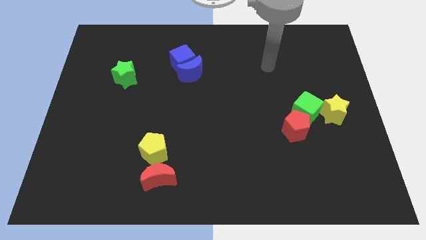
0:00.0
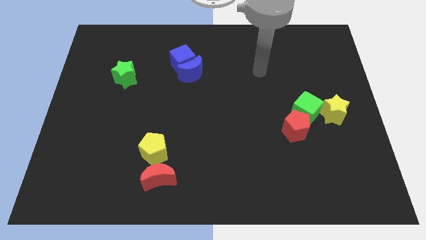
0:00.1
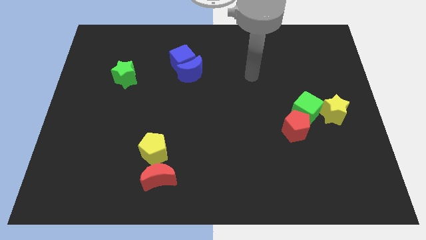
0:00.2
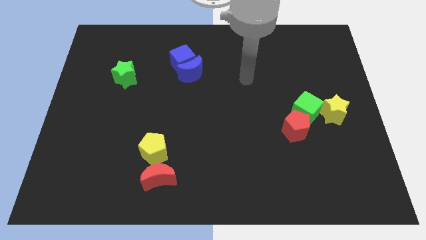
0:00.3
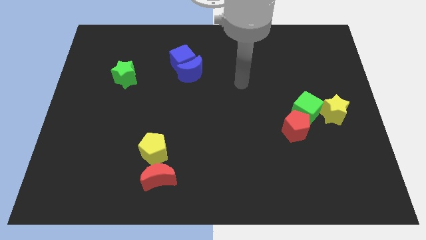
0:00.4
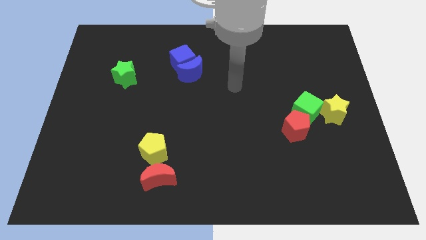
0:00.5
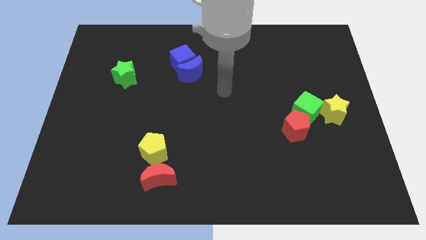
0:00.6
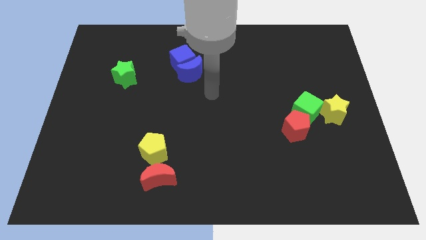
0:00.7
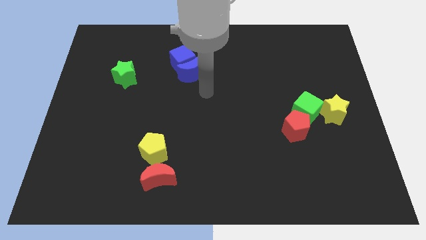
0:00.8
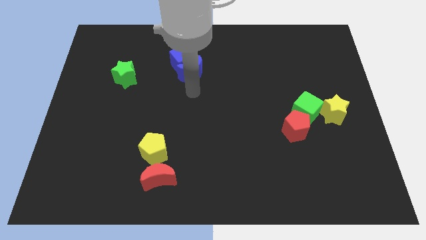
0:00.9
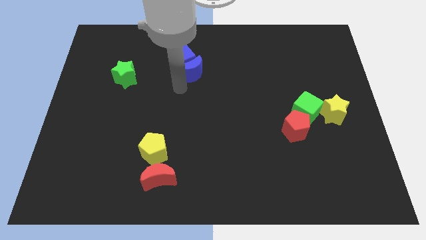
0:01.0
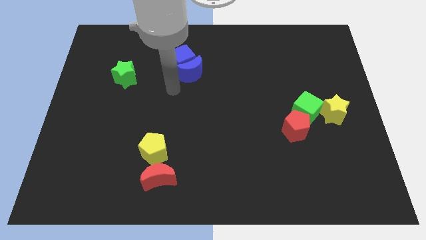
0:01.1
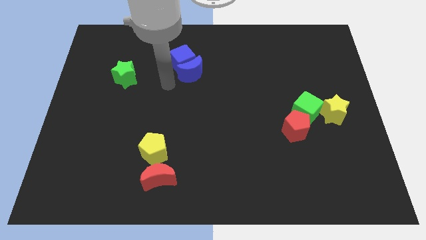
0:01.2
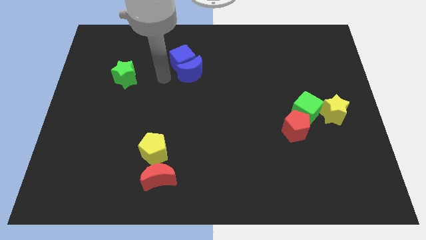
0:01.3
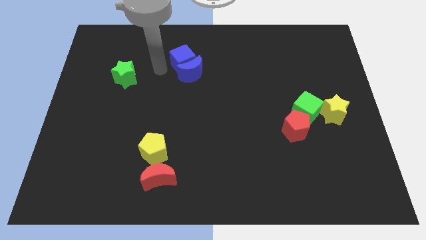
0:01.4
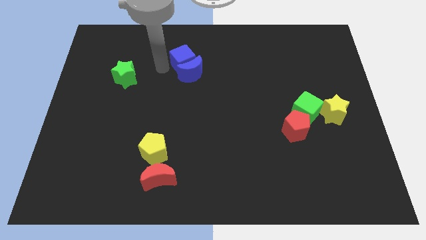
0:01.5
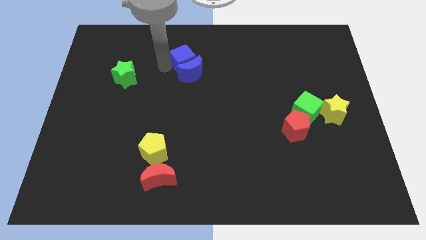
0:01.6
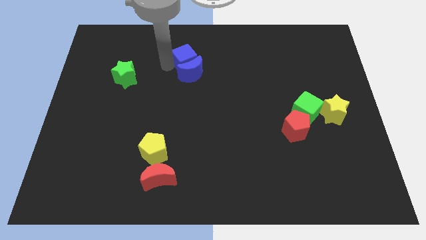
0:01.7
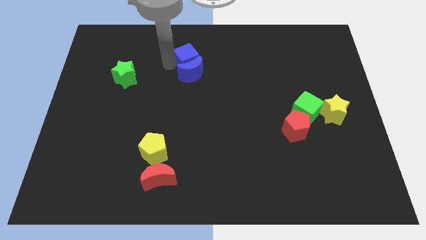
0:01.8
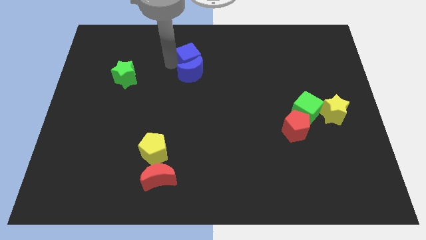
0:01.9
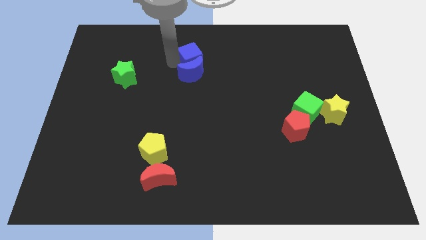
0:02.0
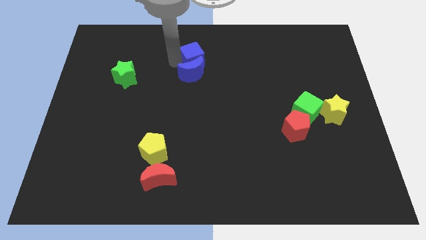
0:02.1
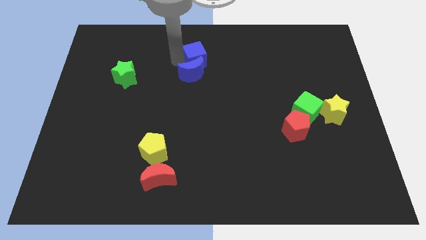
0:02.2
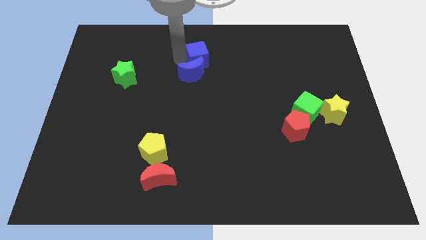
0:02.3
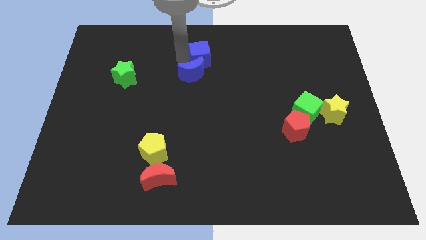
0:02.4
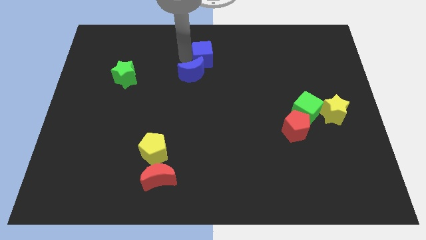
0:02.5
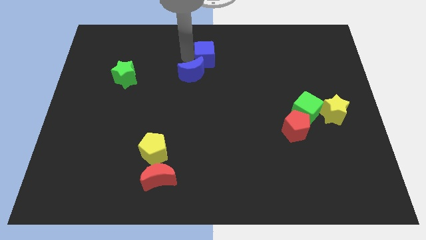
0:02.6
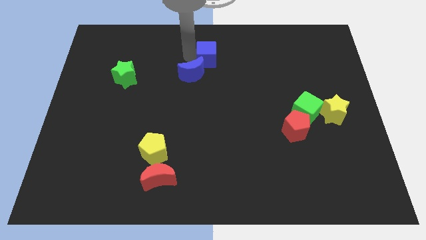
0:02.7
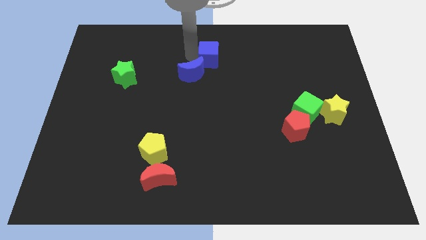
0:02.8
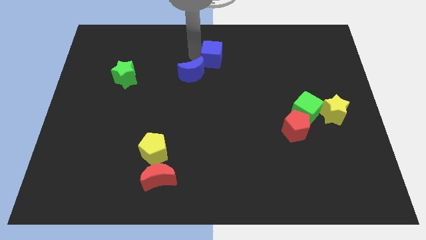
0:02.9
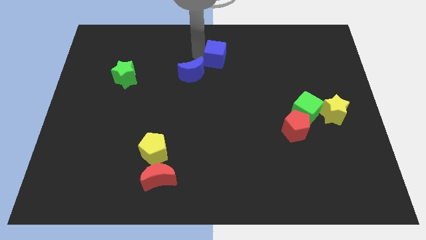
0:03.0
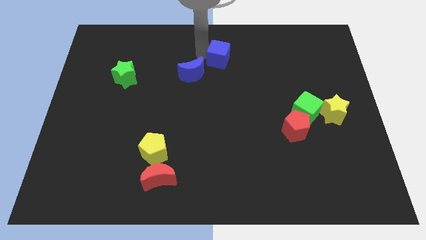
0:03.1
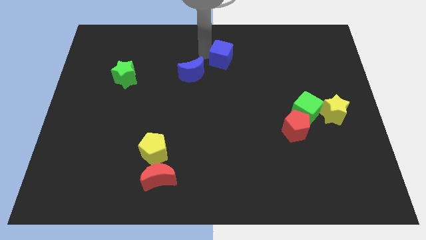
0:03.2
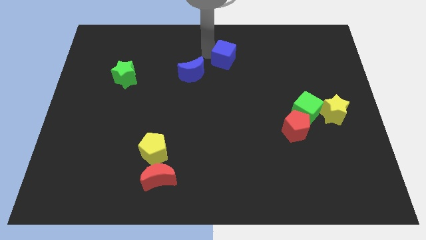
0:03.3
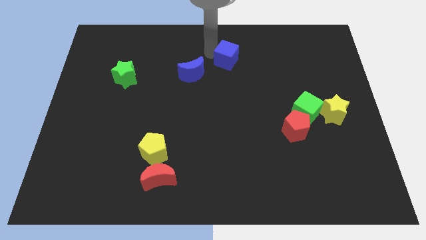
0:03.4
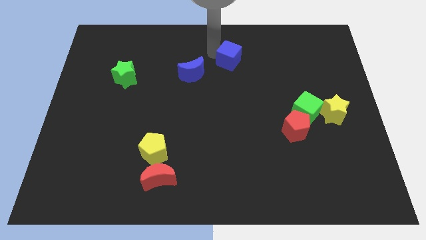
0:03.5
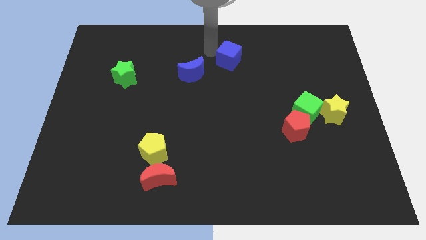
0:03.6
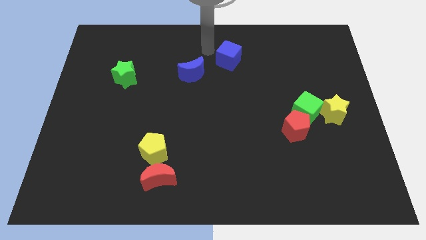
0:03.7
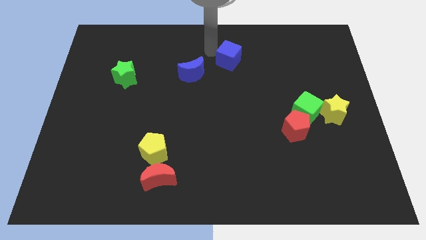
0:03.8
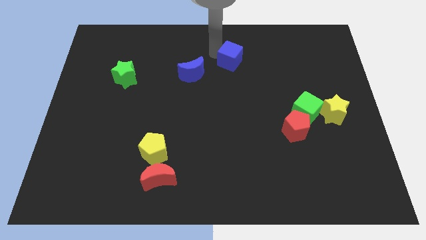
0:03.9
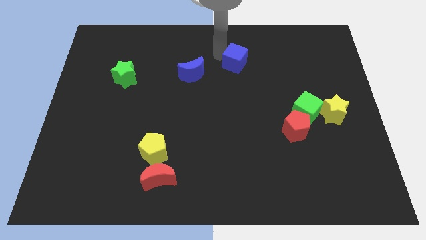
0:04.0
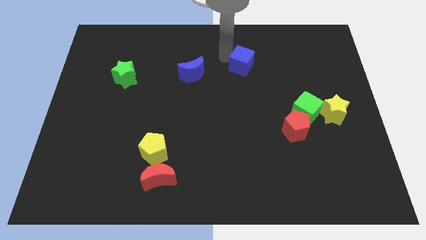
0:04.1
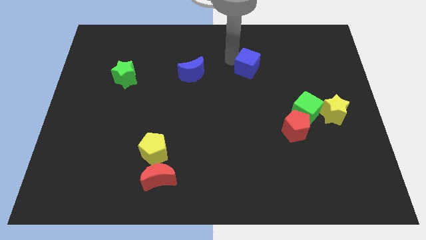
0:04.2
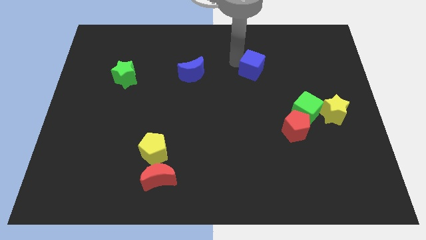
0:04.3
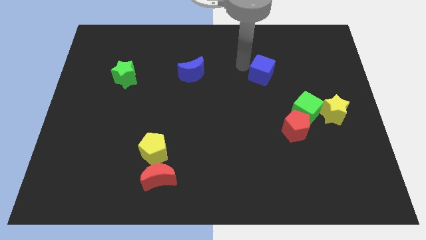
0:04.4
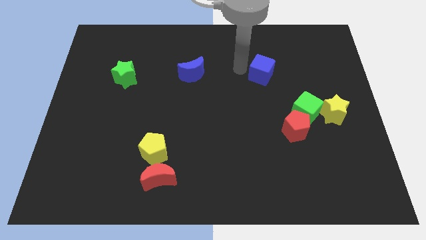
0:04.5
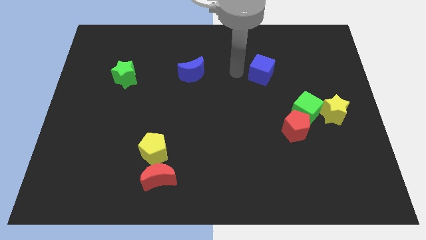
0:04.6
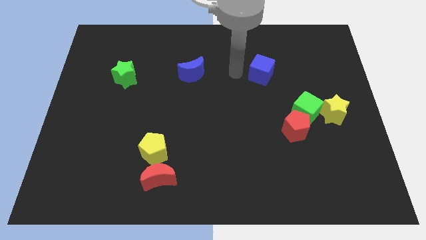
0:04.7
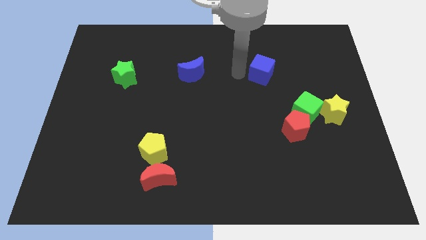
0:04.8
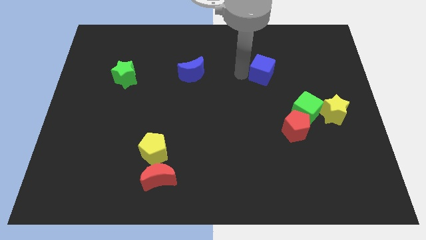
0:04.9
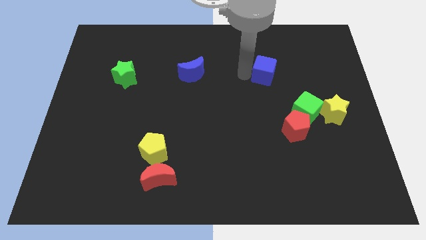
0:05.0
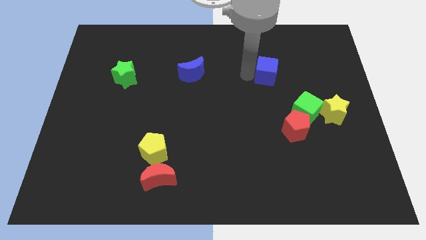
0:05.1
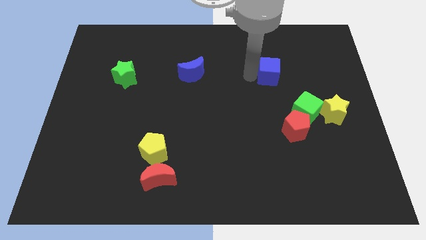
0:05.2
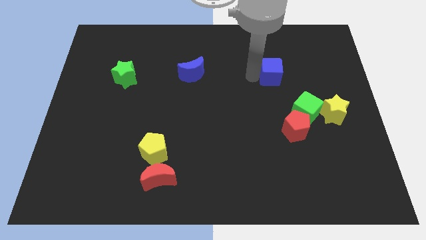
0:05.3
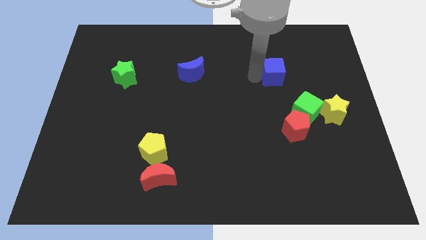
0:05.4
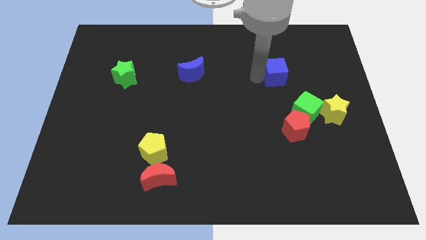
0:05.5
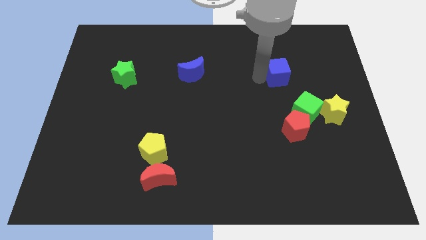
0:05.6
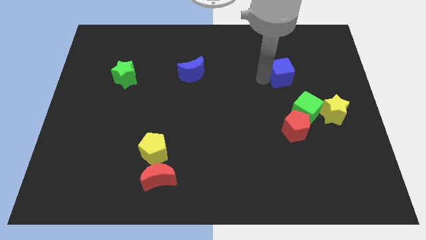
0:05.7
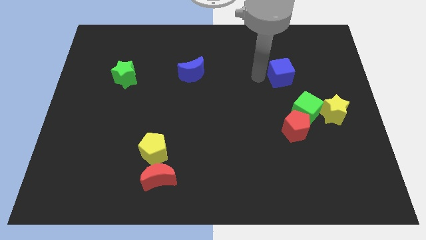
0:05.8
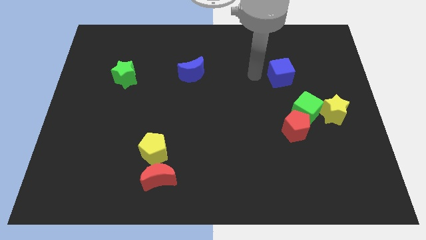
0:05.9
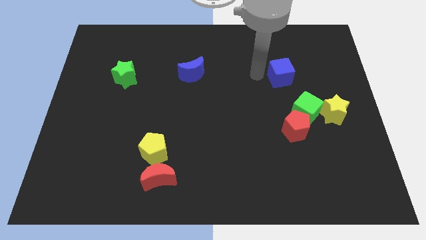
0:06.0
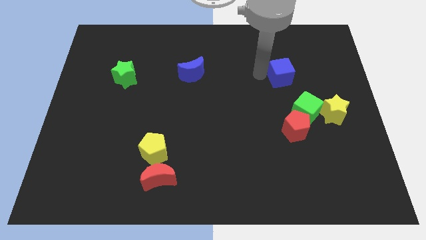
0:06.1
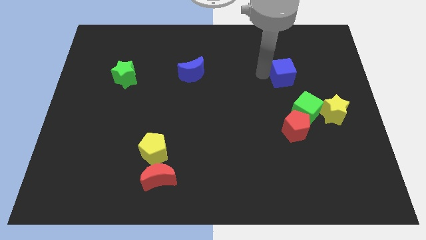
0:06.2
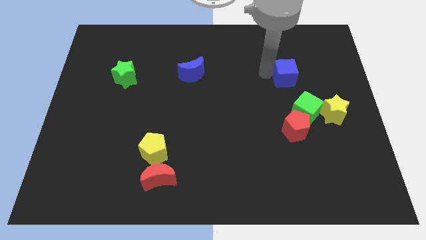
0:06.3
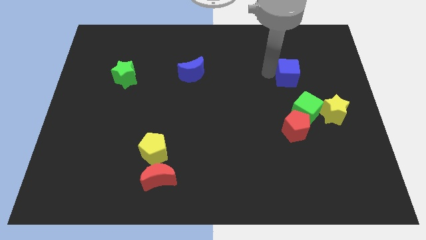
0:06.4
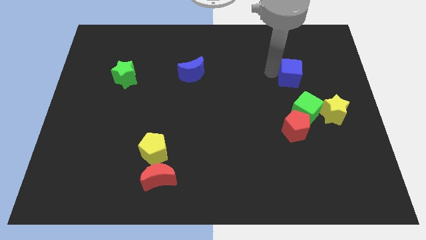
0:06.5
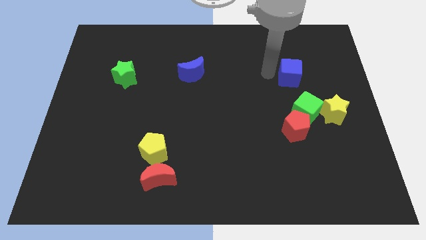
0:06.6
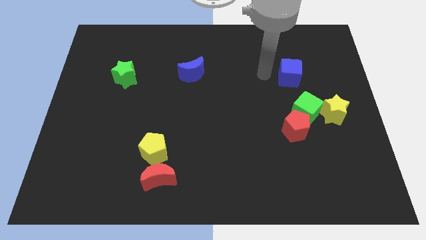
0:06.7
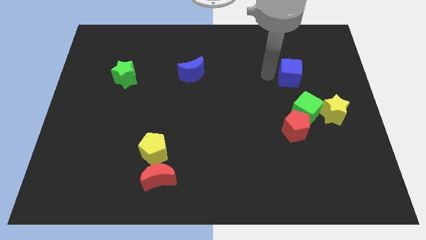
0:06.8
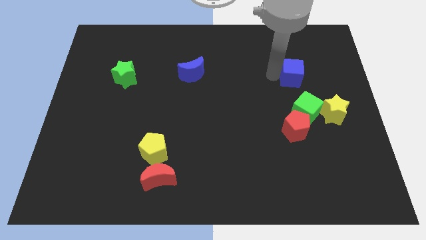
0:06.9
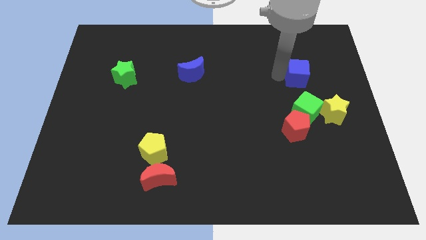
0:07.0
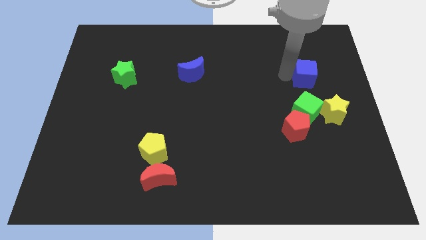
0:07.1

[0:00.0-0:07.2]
put the blue cube above the yellow star

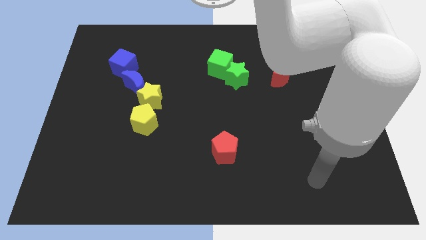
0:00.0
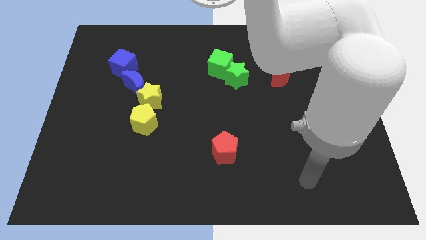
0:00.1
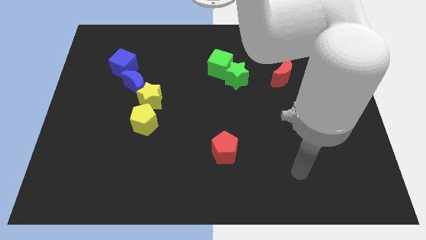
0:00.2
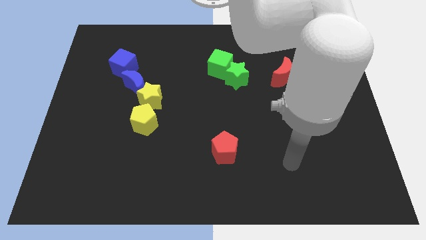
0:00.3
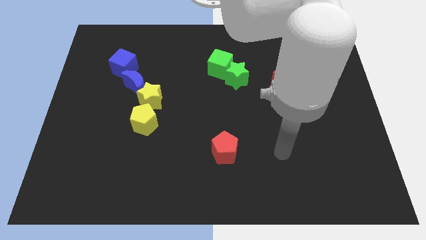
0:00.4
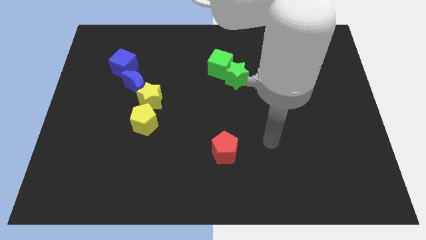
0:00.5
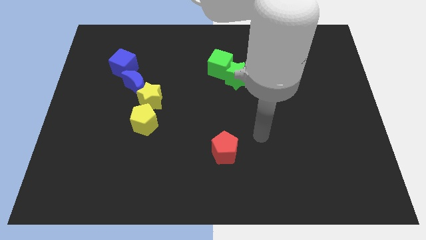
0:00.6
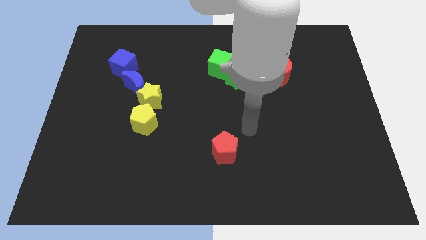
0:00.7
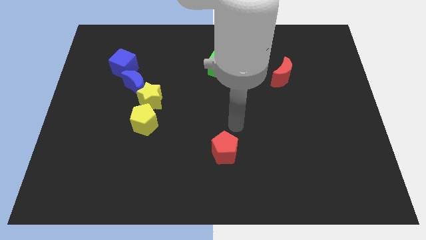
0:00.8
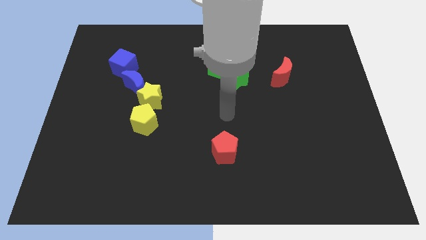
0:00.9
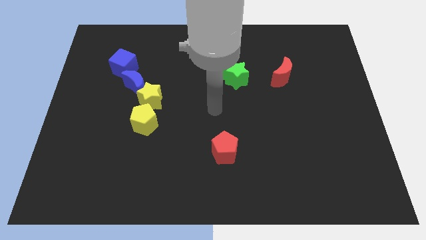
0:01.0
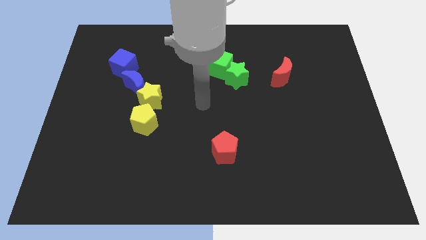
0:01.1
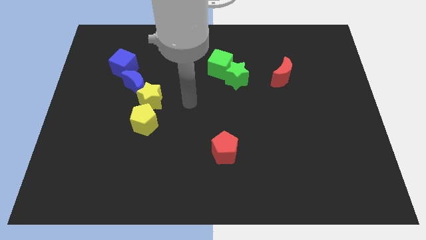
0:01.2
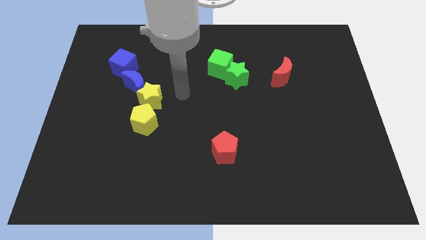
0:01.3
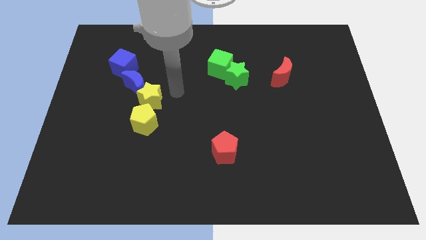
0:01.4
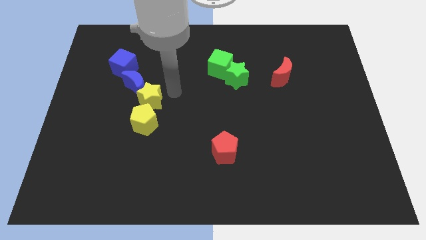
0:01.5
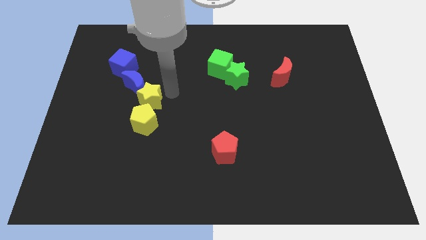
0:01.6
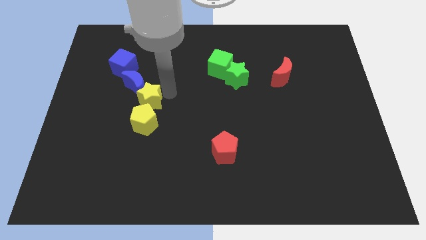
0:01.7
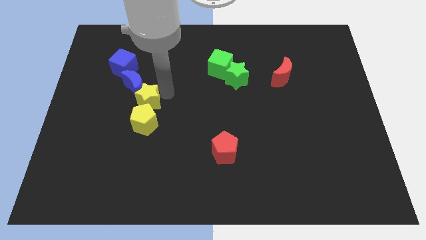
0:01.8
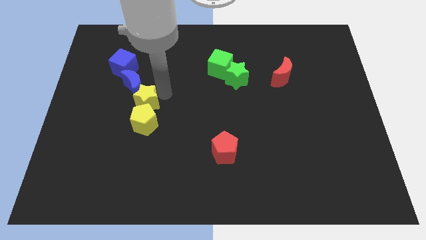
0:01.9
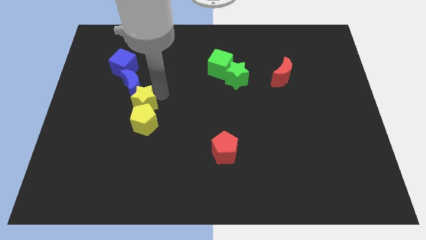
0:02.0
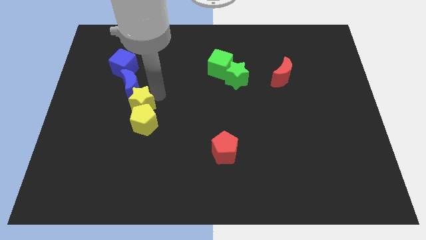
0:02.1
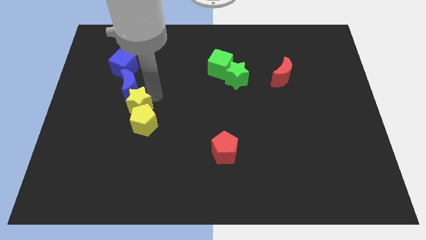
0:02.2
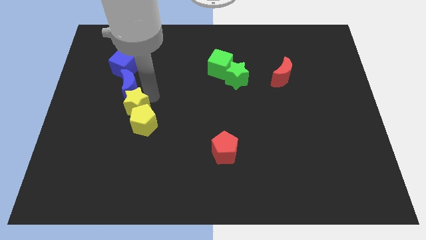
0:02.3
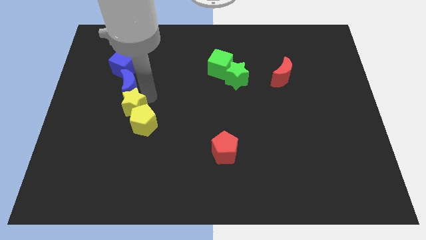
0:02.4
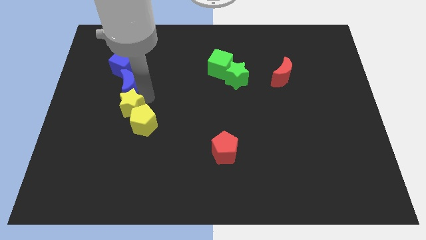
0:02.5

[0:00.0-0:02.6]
push the yellow star to the left of the yellow pentagon
